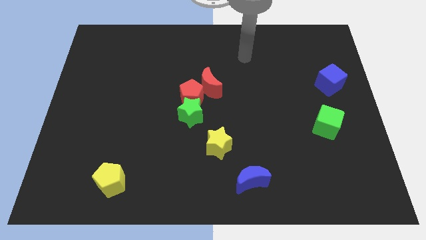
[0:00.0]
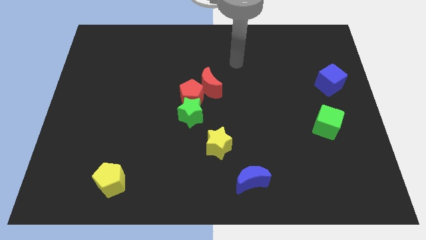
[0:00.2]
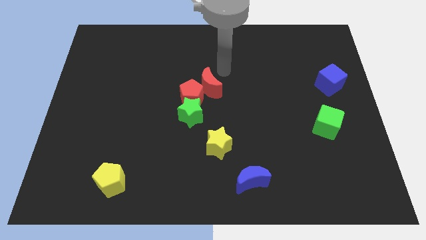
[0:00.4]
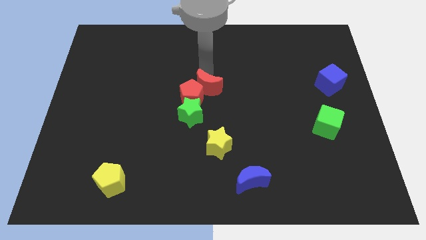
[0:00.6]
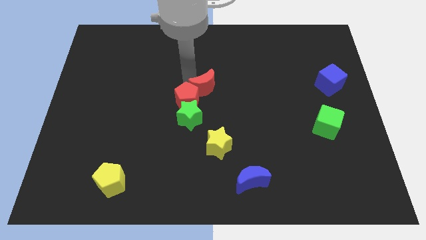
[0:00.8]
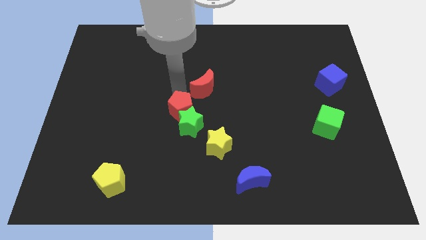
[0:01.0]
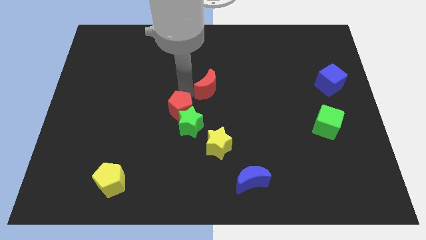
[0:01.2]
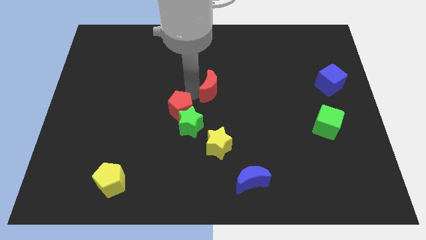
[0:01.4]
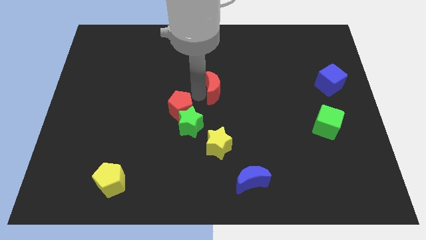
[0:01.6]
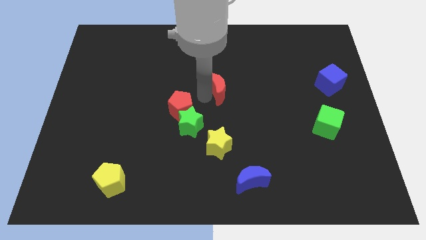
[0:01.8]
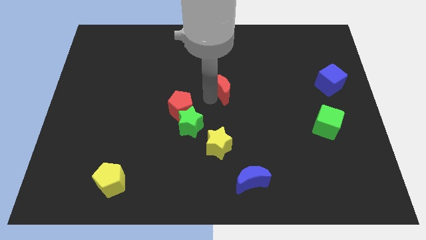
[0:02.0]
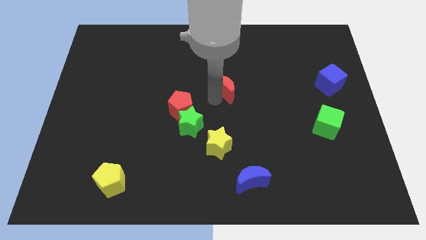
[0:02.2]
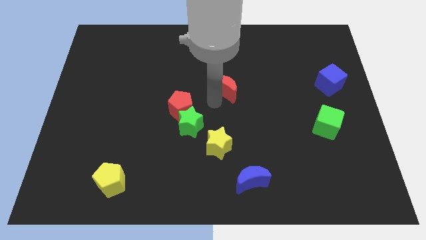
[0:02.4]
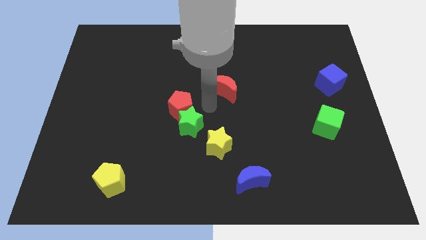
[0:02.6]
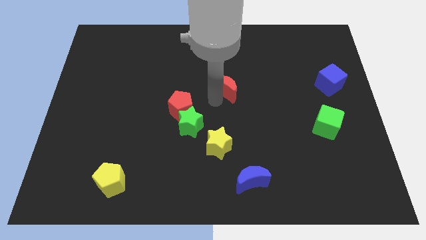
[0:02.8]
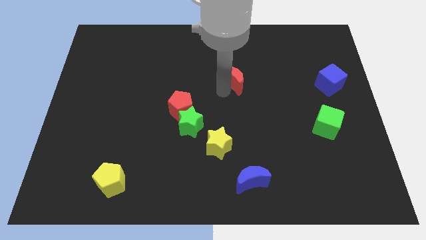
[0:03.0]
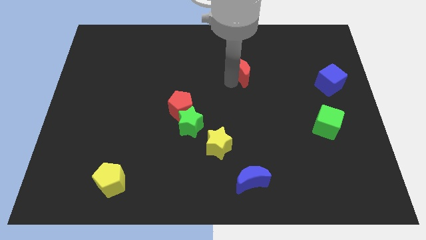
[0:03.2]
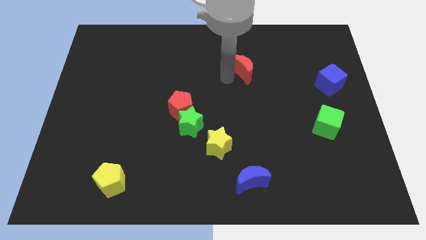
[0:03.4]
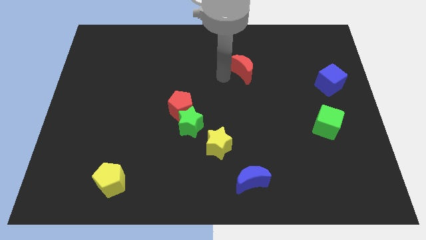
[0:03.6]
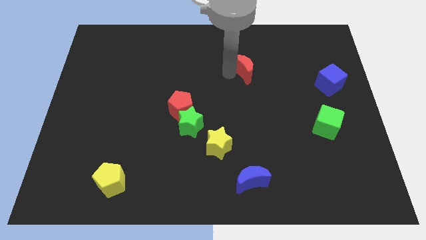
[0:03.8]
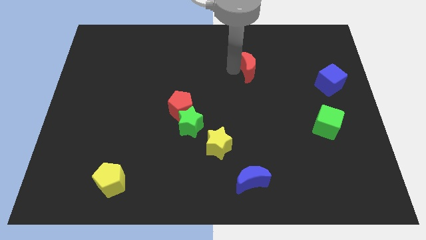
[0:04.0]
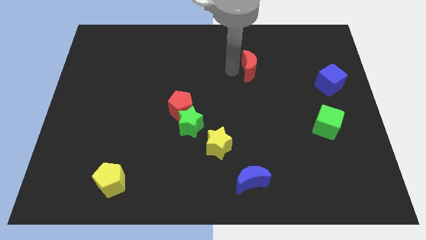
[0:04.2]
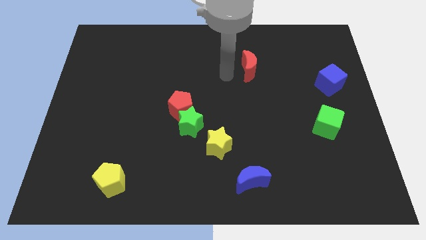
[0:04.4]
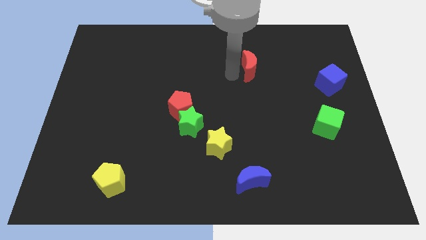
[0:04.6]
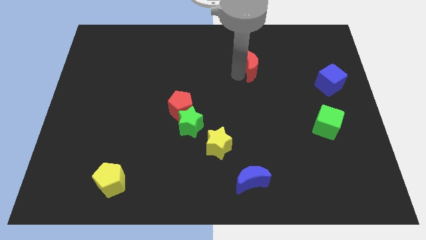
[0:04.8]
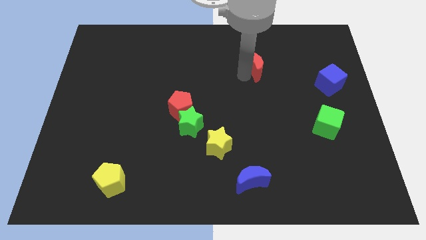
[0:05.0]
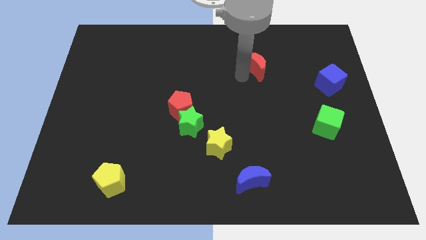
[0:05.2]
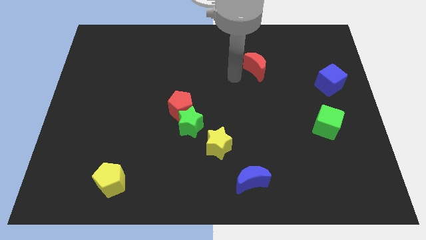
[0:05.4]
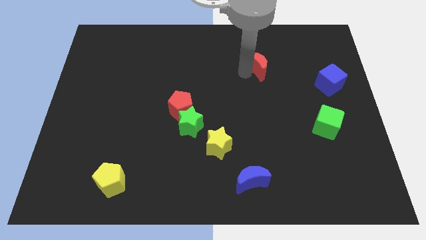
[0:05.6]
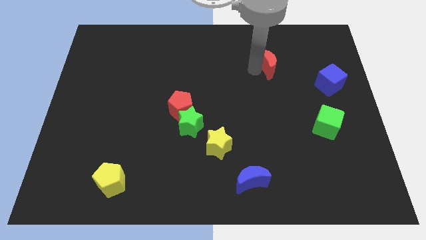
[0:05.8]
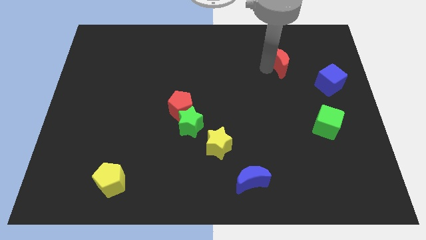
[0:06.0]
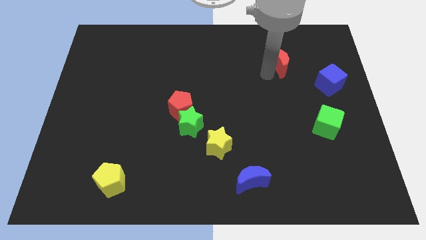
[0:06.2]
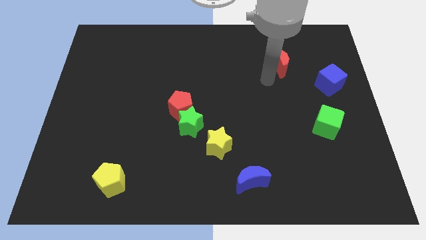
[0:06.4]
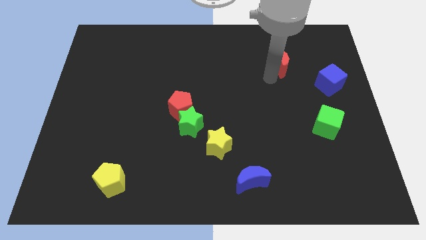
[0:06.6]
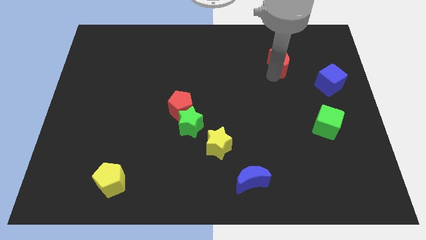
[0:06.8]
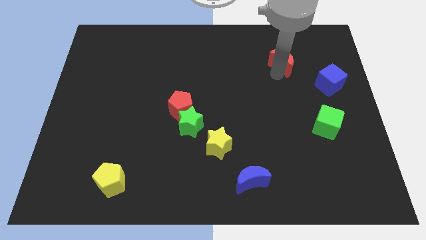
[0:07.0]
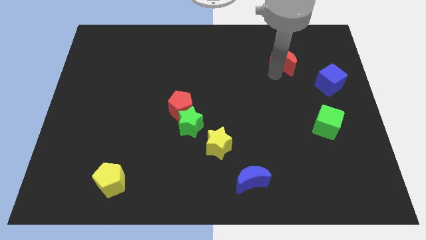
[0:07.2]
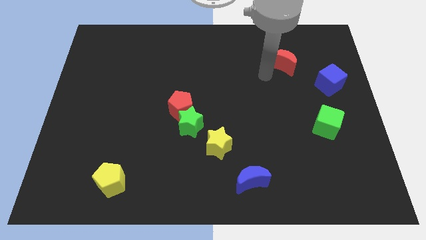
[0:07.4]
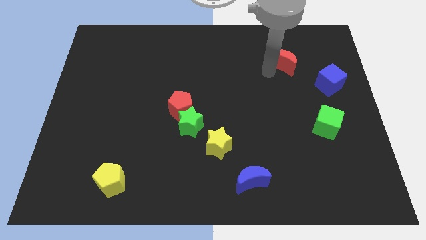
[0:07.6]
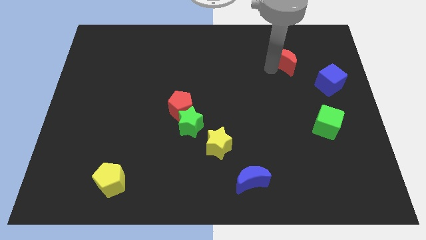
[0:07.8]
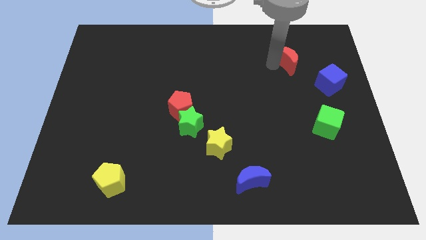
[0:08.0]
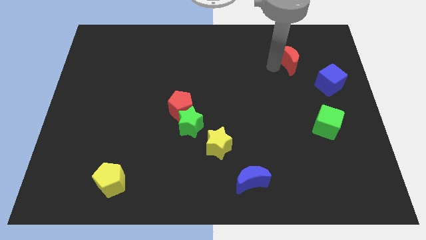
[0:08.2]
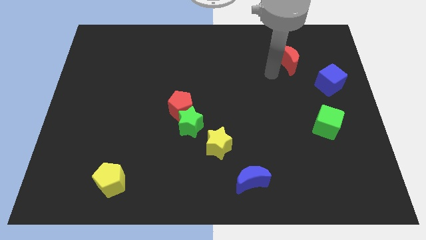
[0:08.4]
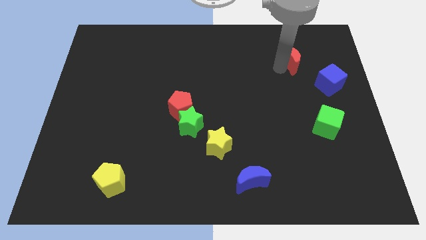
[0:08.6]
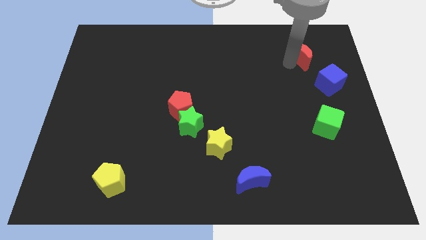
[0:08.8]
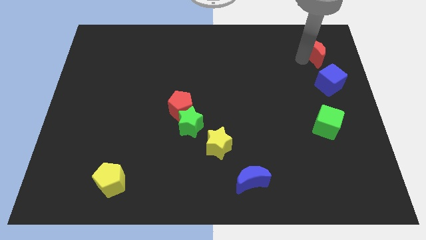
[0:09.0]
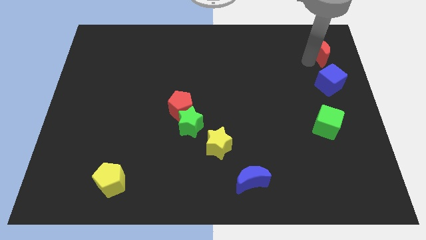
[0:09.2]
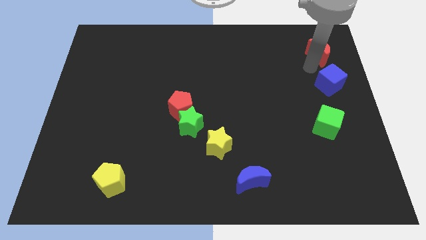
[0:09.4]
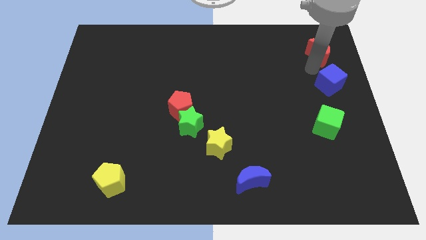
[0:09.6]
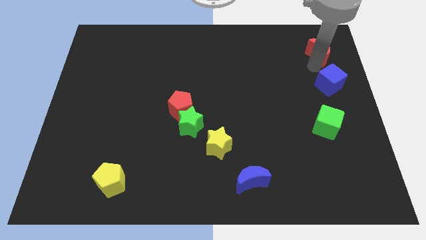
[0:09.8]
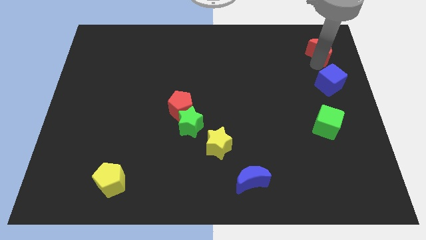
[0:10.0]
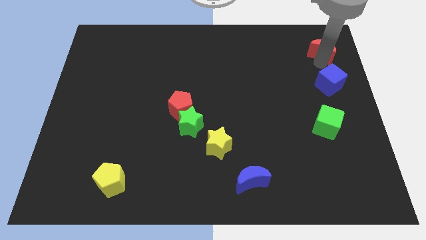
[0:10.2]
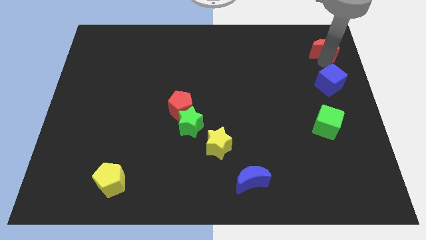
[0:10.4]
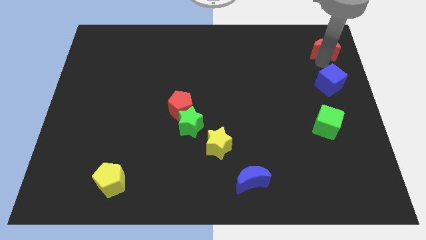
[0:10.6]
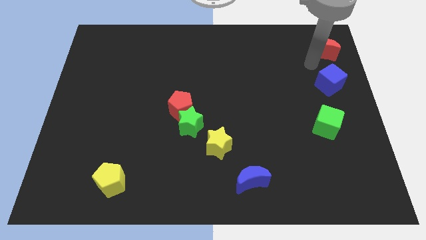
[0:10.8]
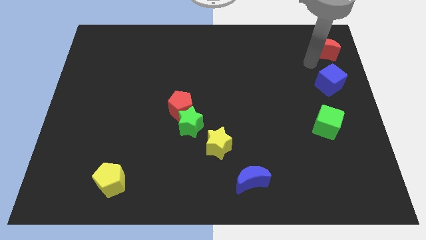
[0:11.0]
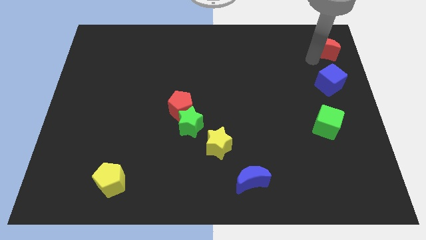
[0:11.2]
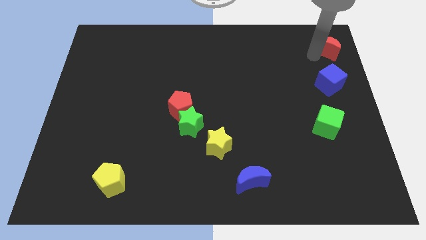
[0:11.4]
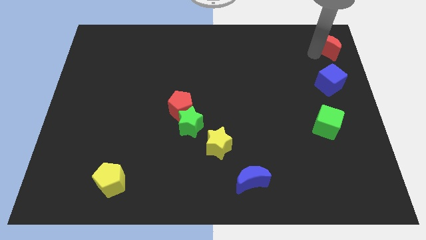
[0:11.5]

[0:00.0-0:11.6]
put the red moon to the top right
